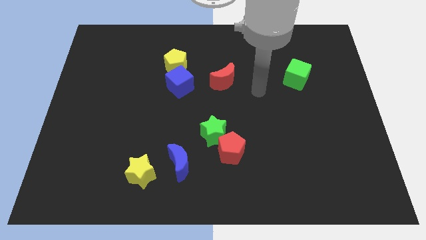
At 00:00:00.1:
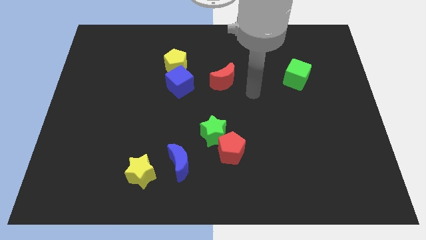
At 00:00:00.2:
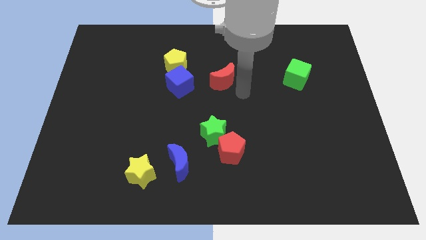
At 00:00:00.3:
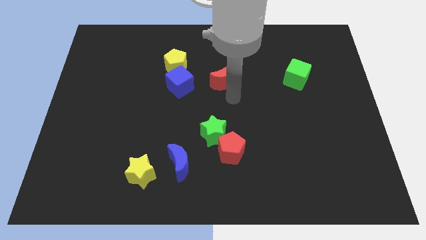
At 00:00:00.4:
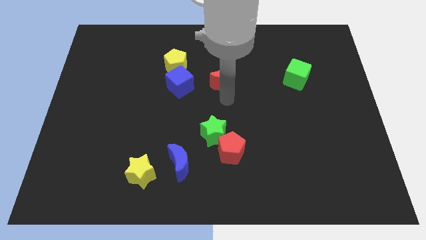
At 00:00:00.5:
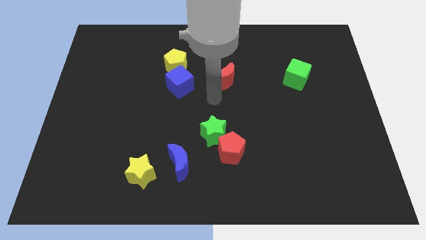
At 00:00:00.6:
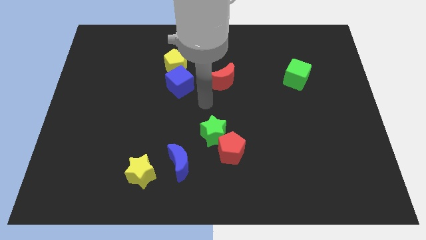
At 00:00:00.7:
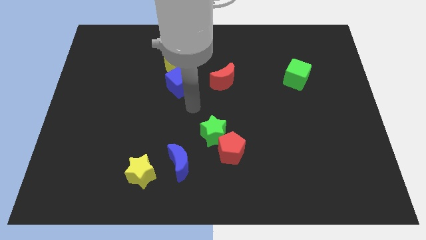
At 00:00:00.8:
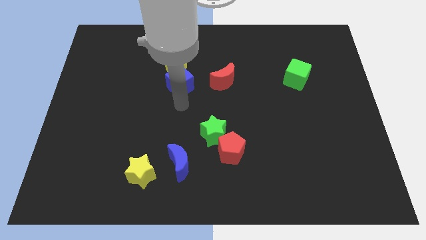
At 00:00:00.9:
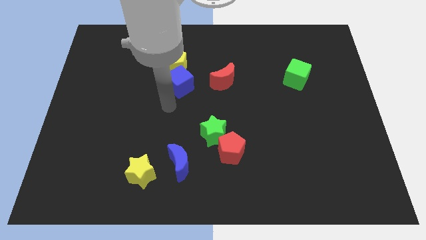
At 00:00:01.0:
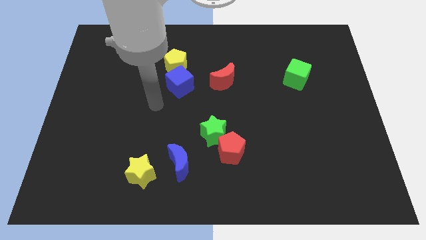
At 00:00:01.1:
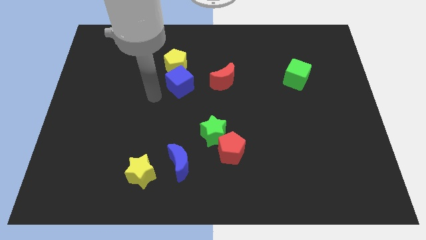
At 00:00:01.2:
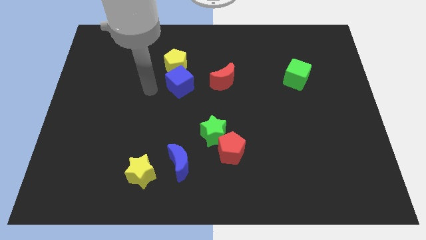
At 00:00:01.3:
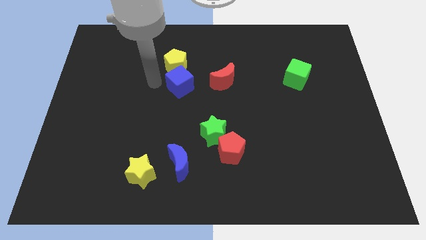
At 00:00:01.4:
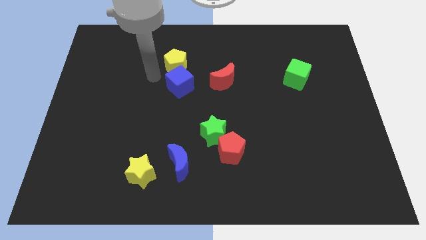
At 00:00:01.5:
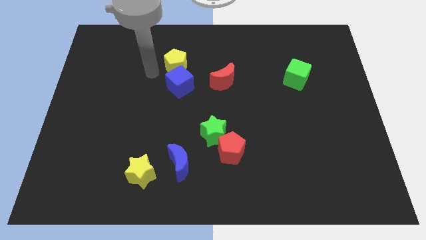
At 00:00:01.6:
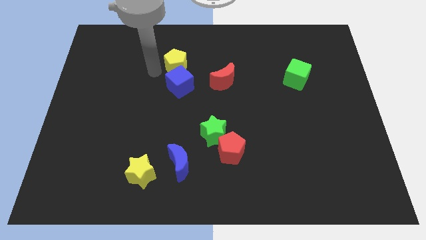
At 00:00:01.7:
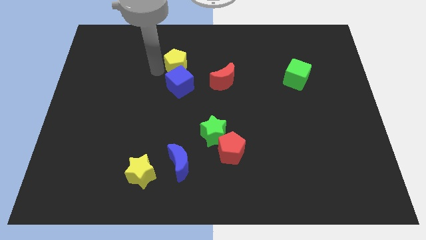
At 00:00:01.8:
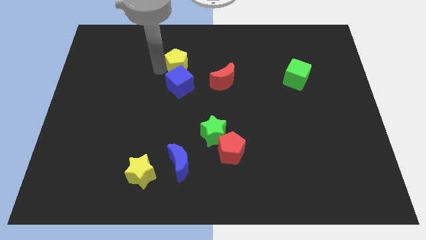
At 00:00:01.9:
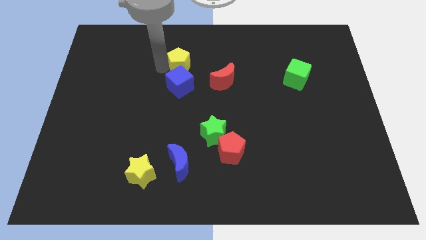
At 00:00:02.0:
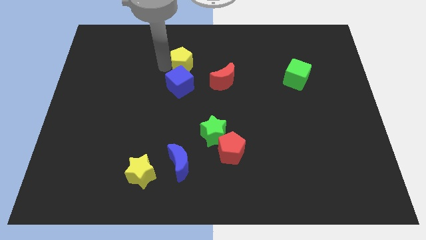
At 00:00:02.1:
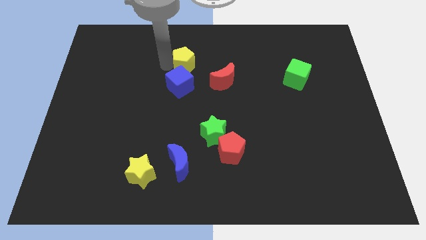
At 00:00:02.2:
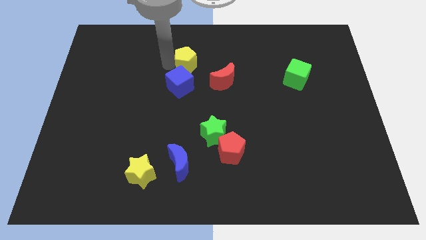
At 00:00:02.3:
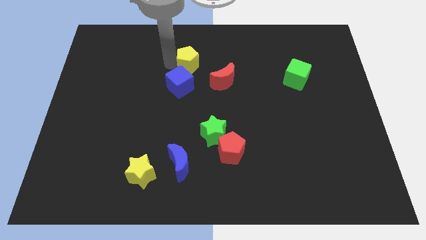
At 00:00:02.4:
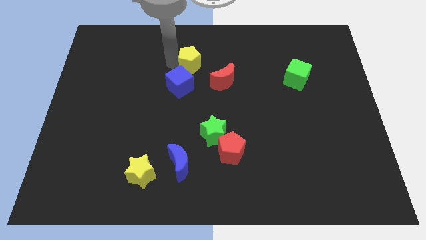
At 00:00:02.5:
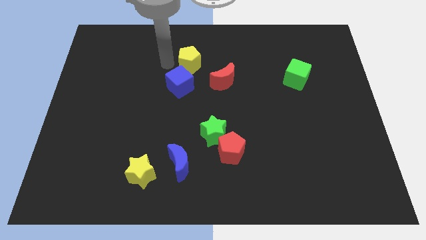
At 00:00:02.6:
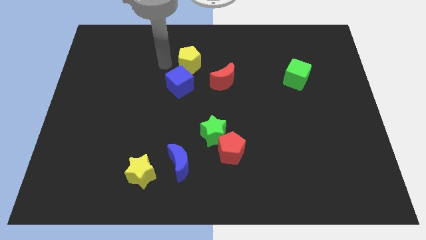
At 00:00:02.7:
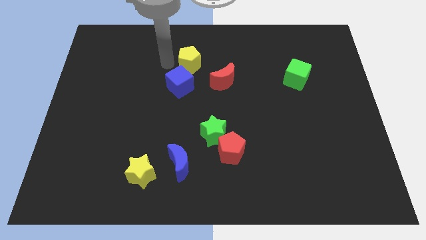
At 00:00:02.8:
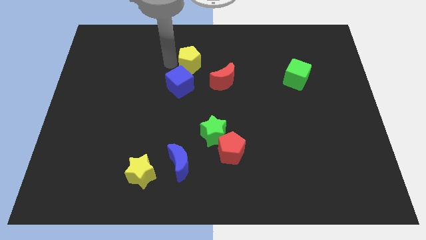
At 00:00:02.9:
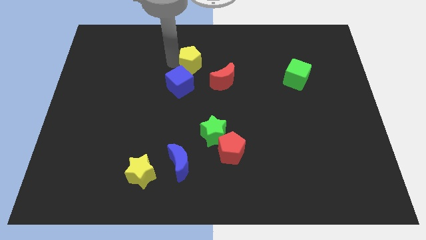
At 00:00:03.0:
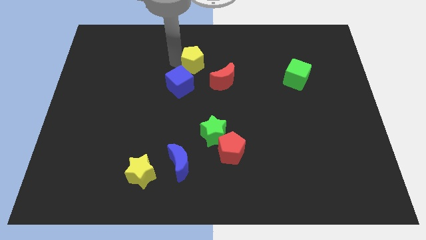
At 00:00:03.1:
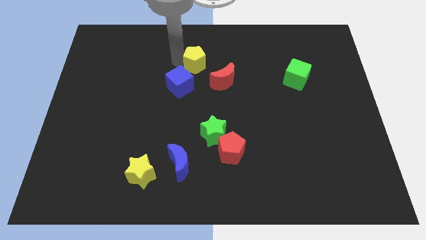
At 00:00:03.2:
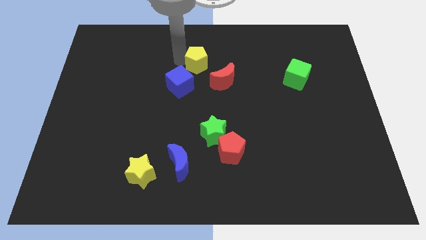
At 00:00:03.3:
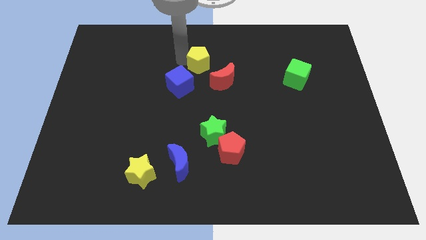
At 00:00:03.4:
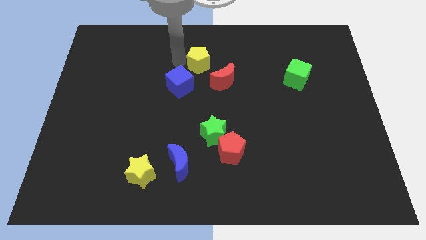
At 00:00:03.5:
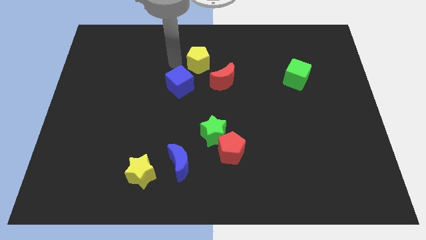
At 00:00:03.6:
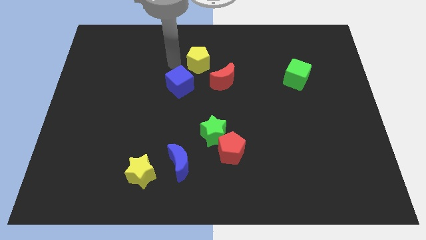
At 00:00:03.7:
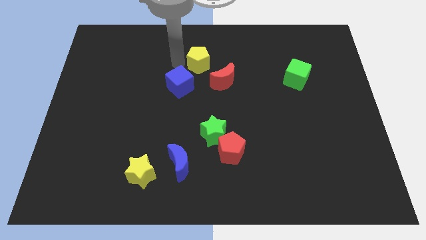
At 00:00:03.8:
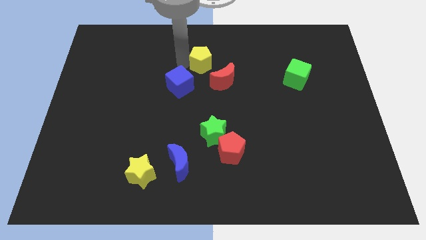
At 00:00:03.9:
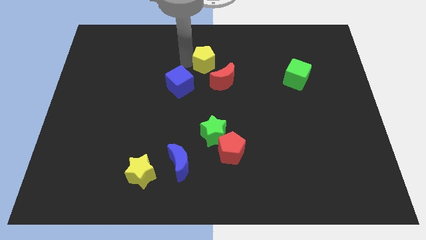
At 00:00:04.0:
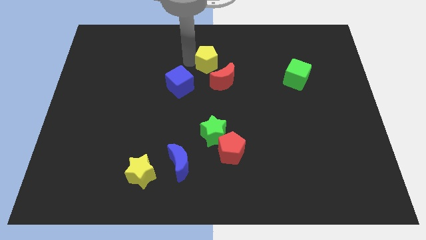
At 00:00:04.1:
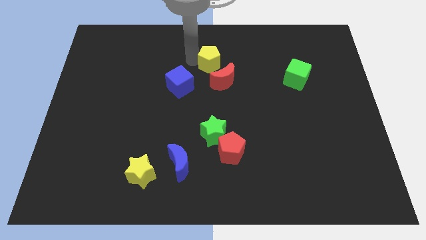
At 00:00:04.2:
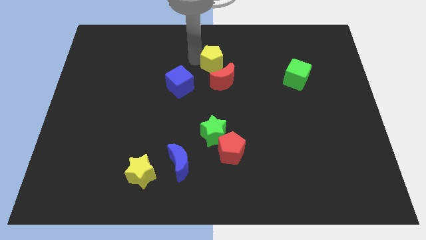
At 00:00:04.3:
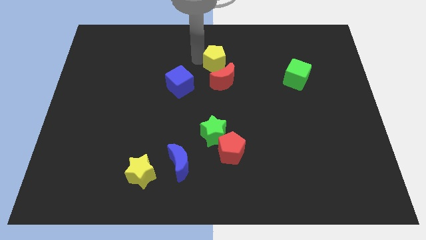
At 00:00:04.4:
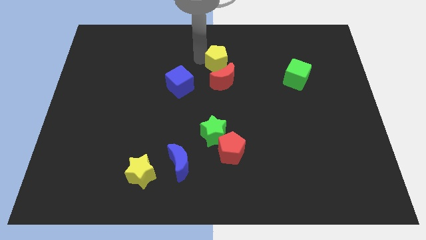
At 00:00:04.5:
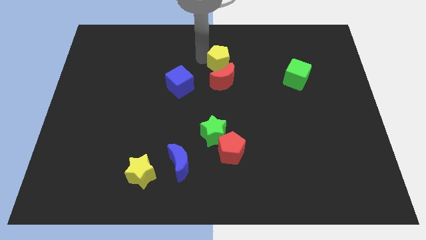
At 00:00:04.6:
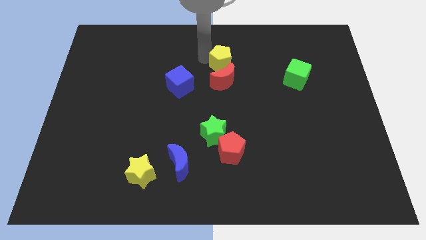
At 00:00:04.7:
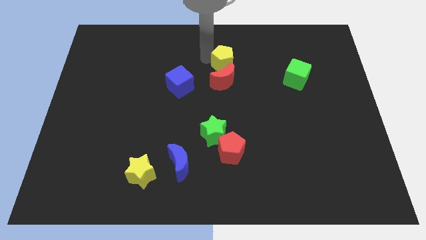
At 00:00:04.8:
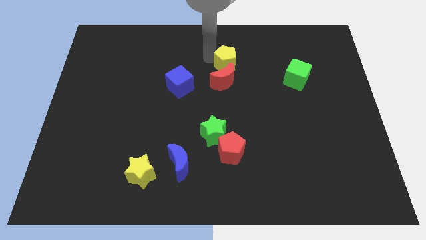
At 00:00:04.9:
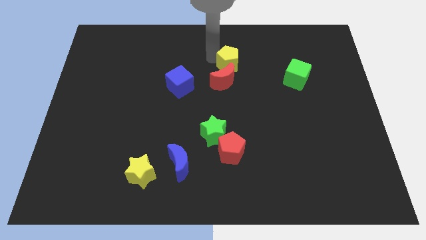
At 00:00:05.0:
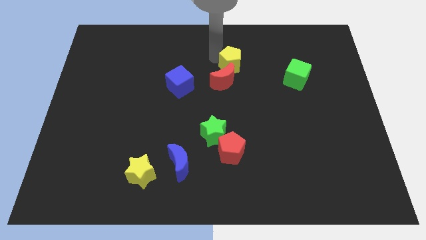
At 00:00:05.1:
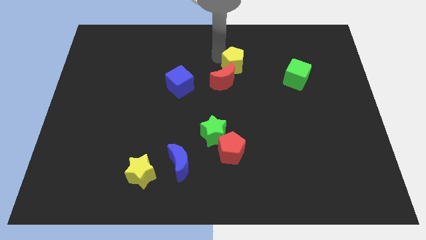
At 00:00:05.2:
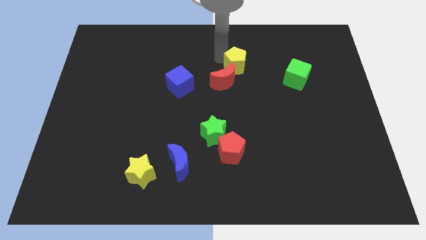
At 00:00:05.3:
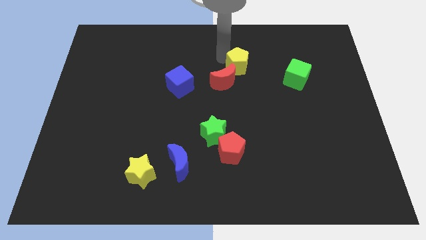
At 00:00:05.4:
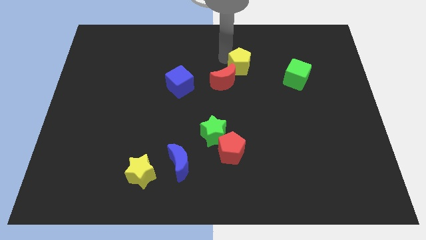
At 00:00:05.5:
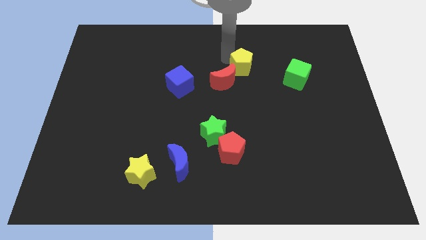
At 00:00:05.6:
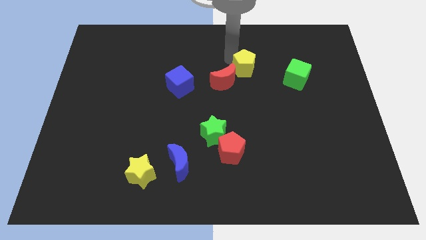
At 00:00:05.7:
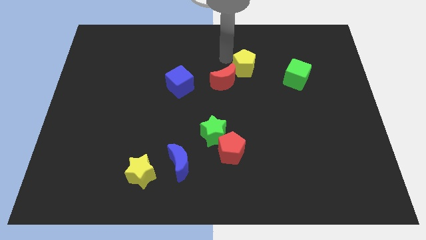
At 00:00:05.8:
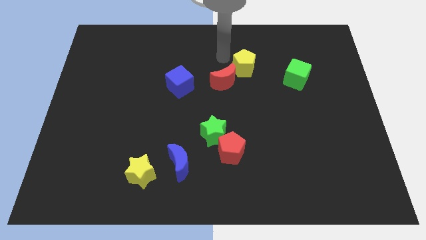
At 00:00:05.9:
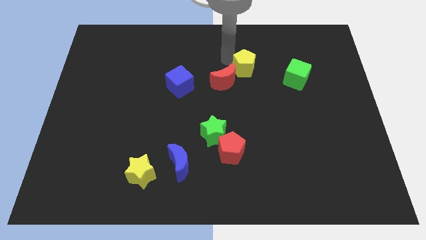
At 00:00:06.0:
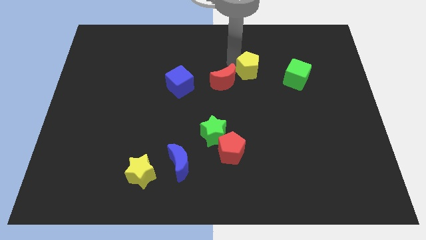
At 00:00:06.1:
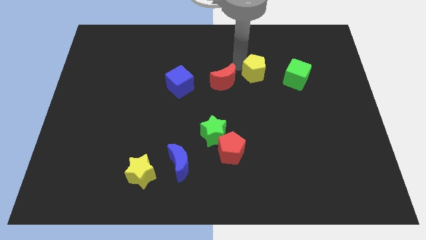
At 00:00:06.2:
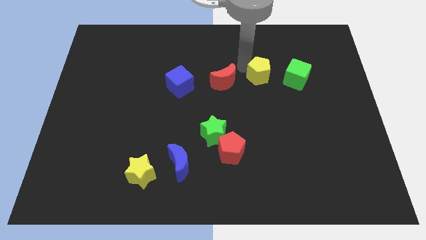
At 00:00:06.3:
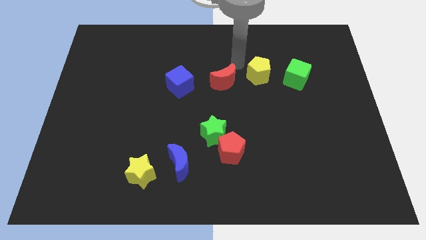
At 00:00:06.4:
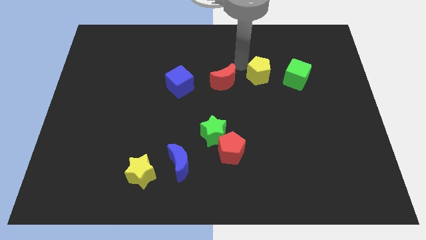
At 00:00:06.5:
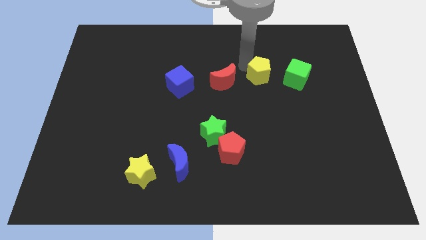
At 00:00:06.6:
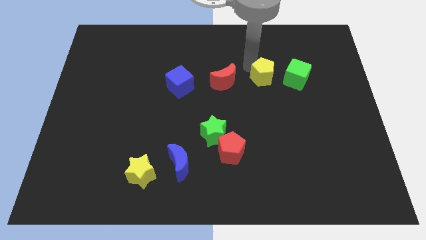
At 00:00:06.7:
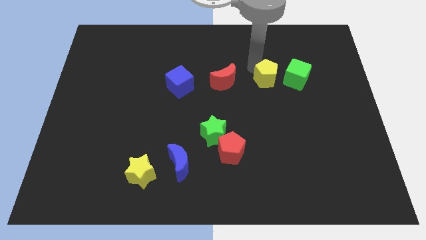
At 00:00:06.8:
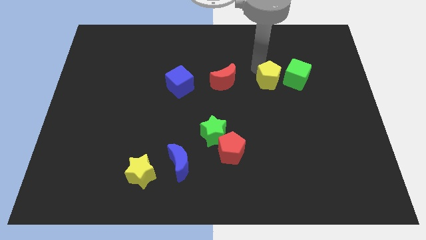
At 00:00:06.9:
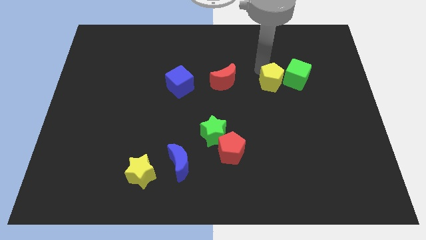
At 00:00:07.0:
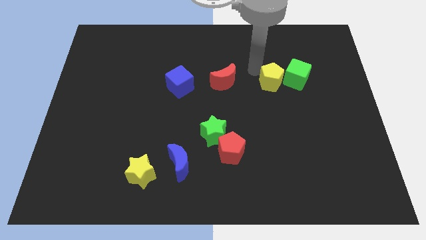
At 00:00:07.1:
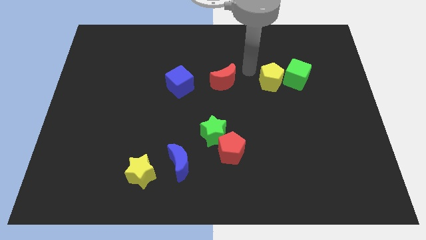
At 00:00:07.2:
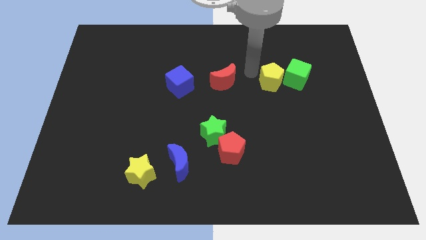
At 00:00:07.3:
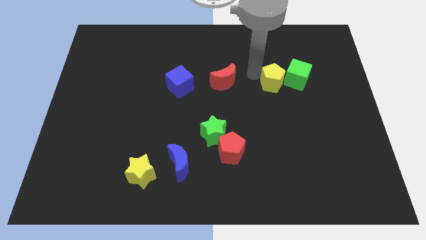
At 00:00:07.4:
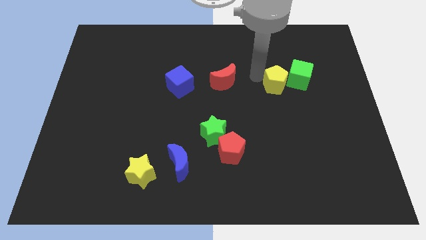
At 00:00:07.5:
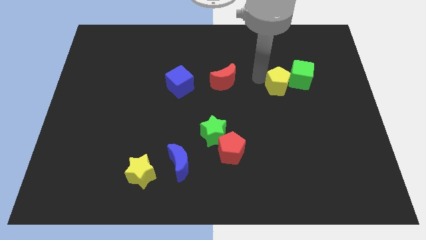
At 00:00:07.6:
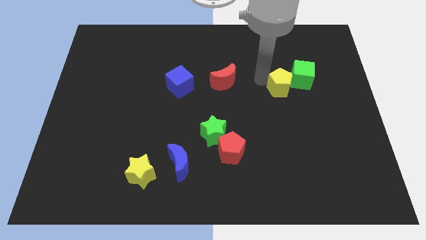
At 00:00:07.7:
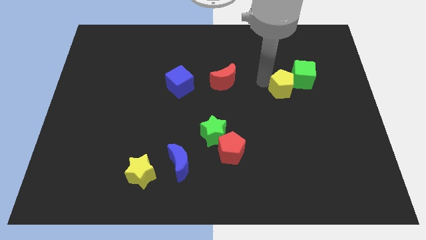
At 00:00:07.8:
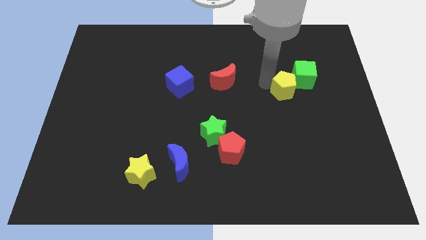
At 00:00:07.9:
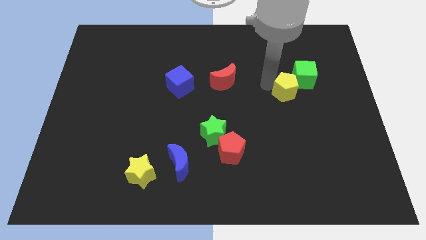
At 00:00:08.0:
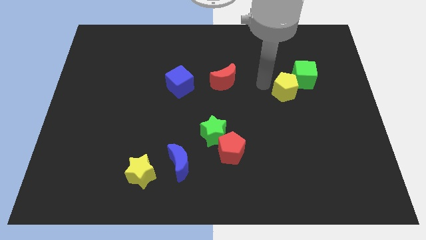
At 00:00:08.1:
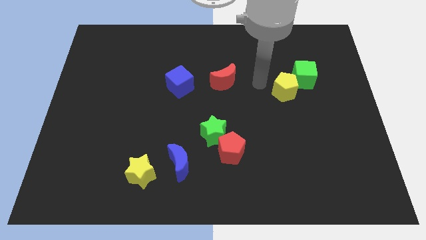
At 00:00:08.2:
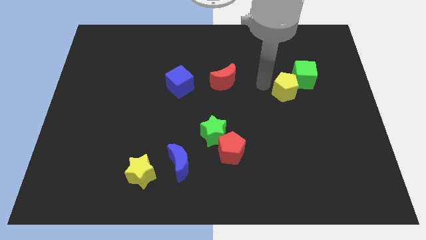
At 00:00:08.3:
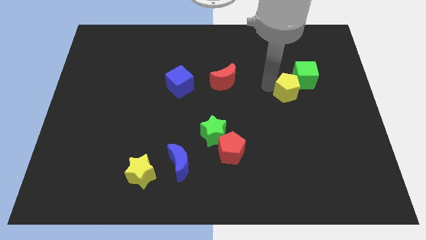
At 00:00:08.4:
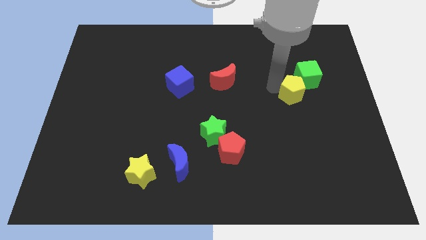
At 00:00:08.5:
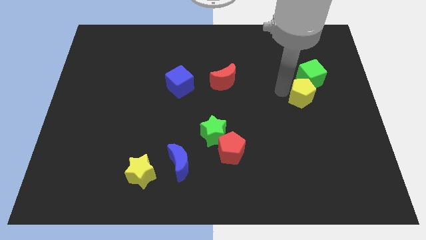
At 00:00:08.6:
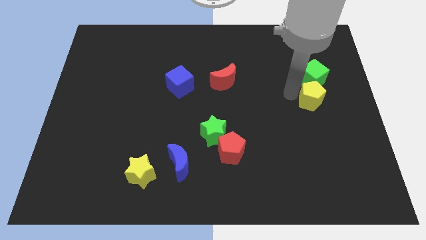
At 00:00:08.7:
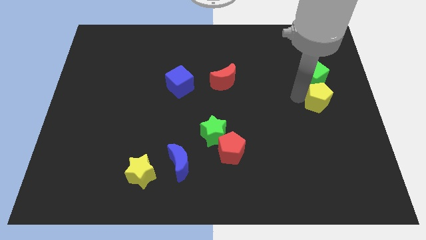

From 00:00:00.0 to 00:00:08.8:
move the yellow pentagon to the bottom right of the green cube
